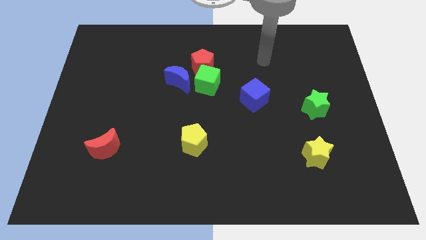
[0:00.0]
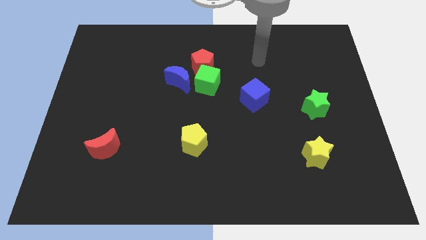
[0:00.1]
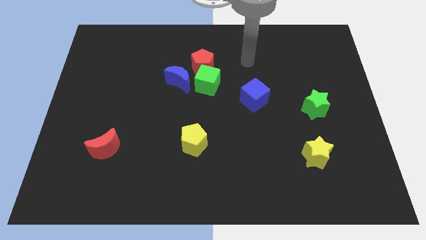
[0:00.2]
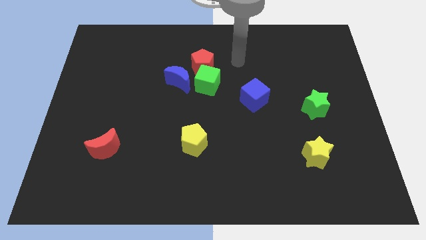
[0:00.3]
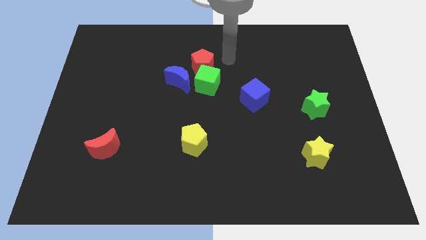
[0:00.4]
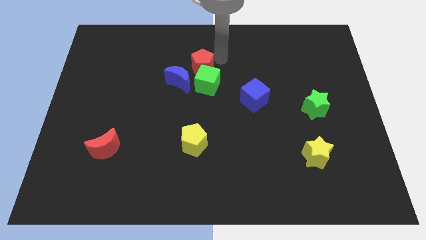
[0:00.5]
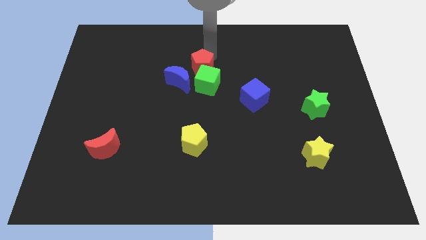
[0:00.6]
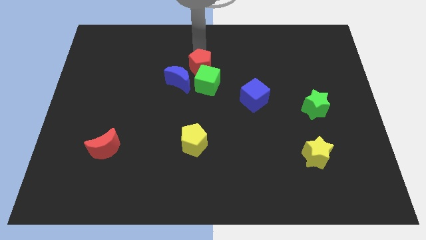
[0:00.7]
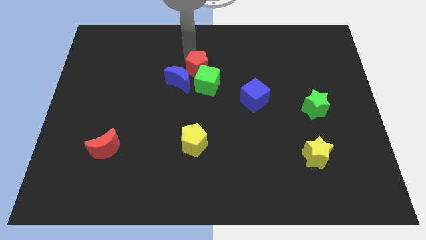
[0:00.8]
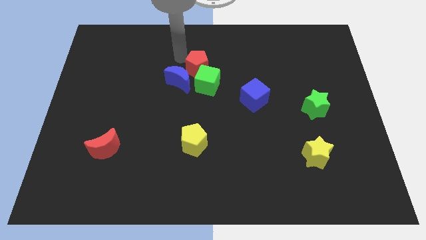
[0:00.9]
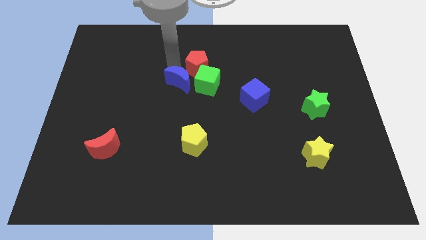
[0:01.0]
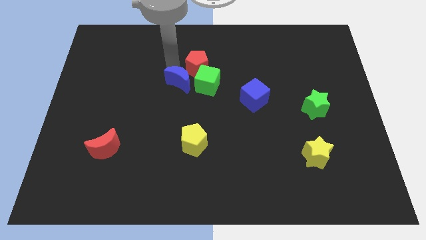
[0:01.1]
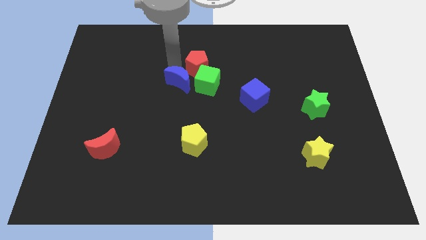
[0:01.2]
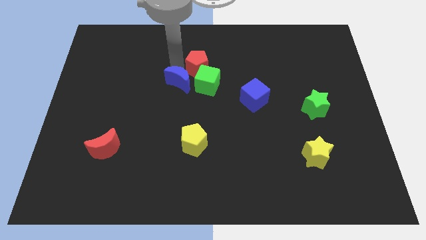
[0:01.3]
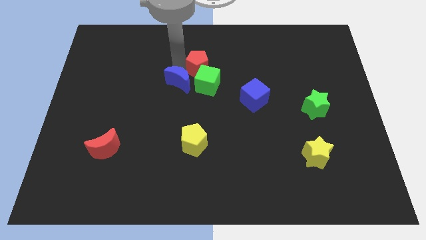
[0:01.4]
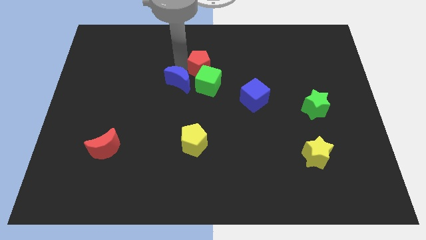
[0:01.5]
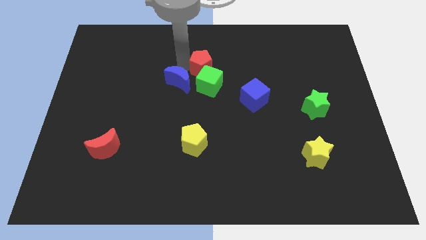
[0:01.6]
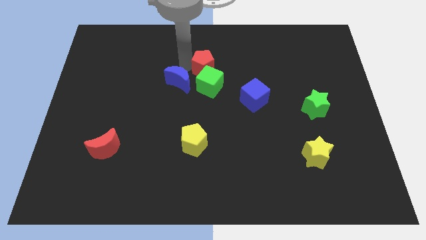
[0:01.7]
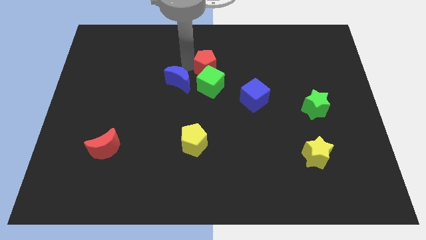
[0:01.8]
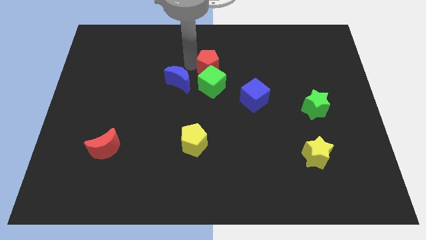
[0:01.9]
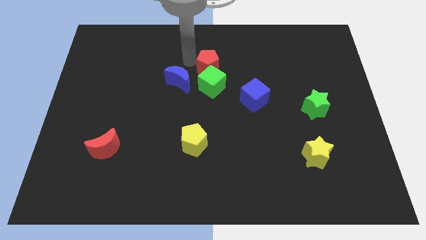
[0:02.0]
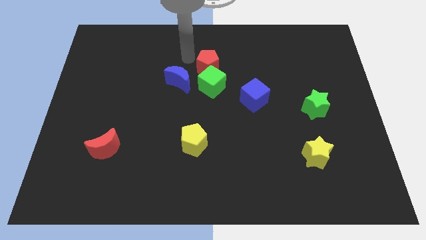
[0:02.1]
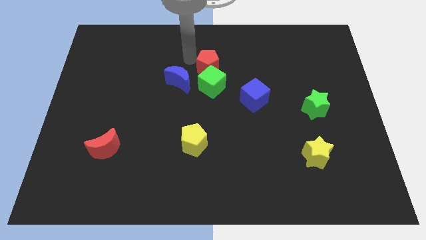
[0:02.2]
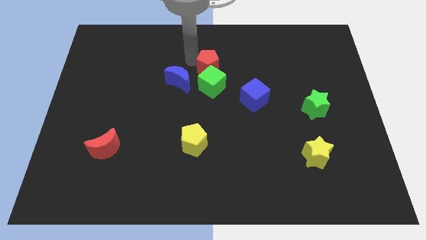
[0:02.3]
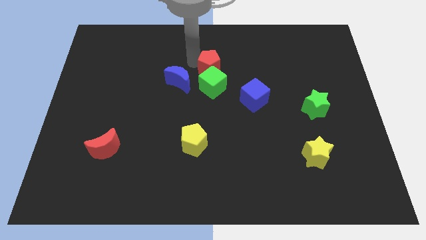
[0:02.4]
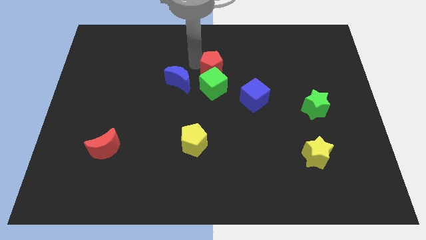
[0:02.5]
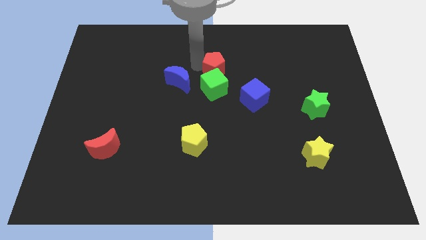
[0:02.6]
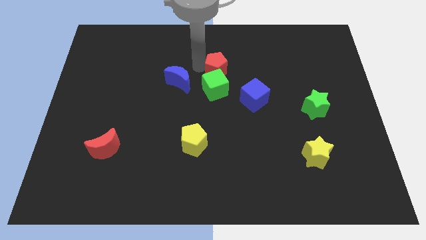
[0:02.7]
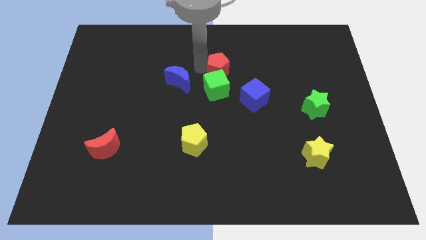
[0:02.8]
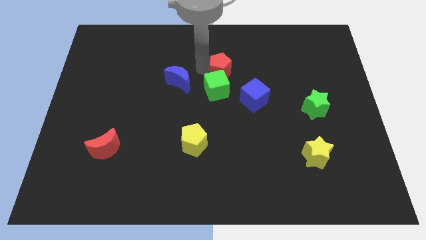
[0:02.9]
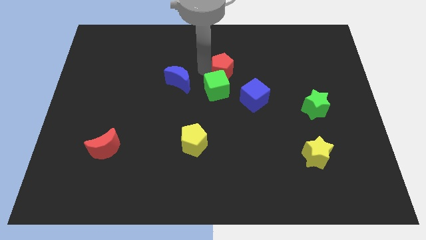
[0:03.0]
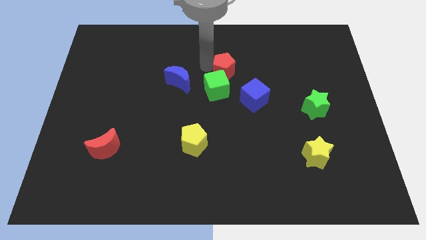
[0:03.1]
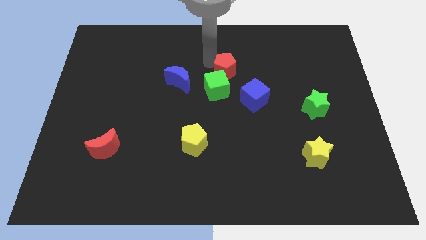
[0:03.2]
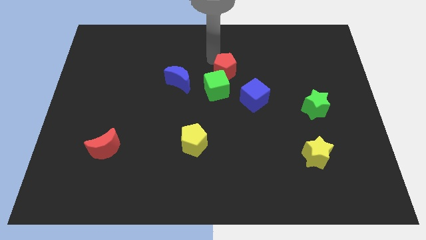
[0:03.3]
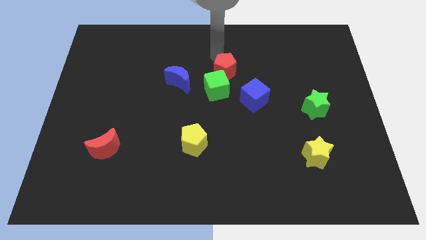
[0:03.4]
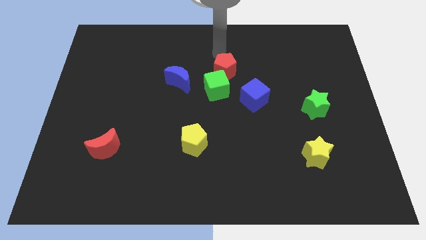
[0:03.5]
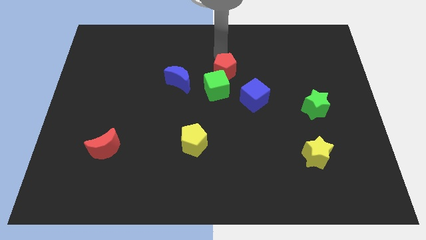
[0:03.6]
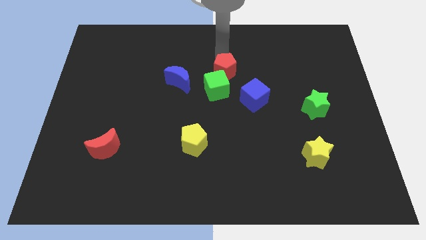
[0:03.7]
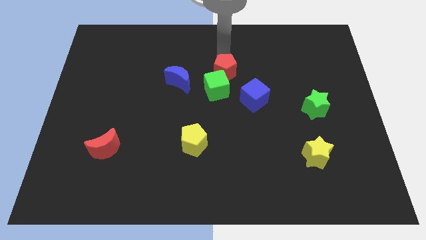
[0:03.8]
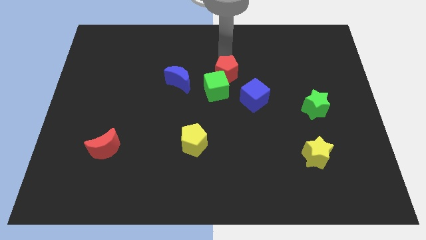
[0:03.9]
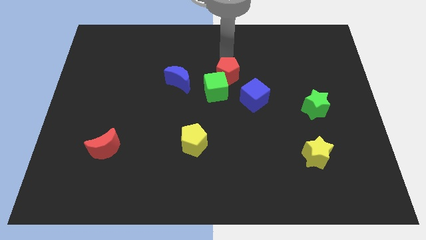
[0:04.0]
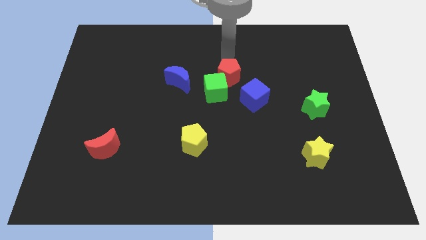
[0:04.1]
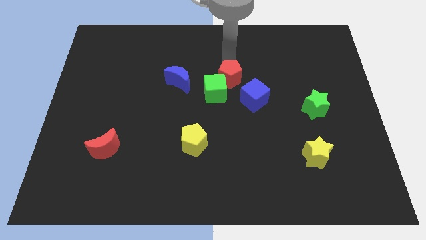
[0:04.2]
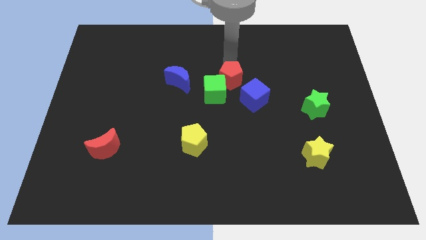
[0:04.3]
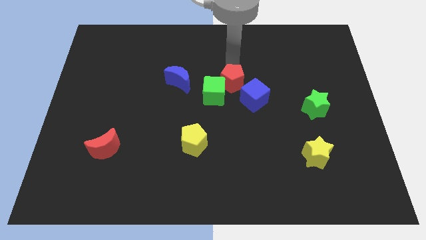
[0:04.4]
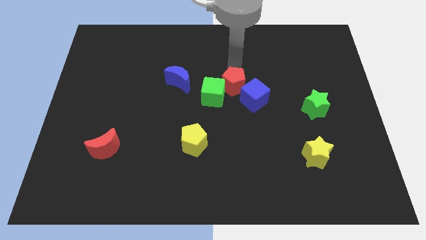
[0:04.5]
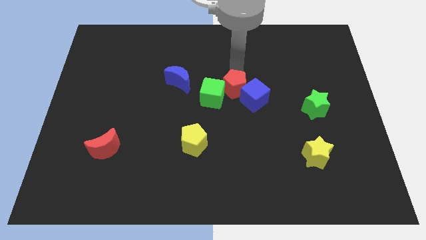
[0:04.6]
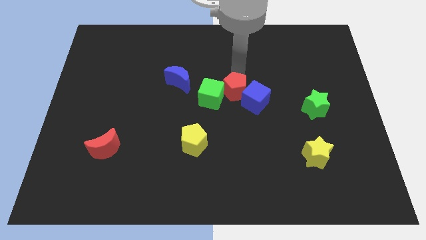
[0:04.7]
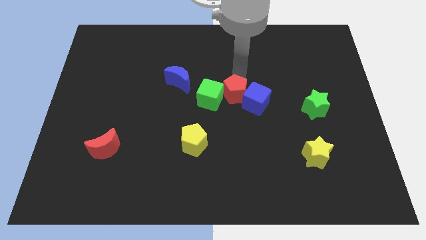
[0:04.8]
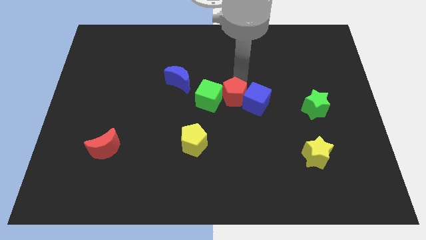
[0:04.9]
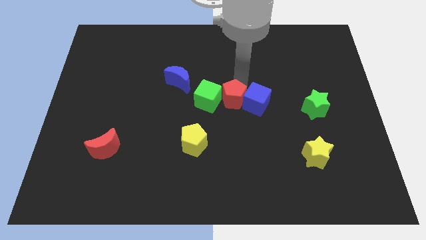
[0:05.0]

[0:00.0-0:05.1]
slide the red pentagon diagonally down and to the left of the blue cube

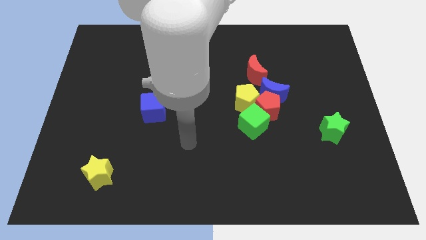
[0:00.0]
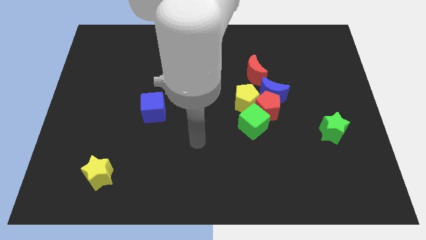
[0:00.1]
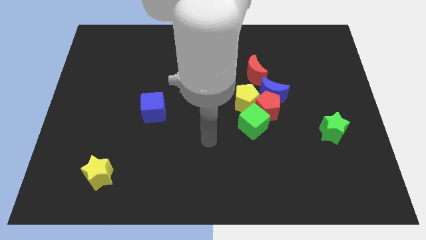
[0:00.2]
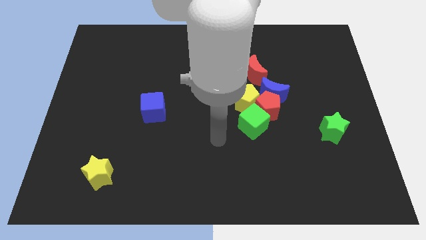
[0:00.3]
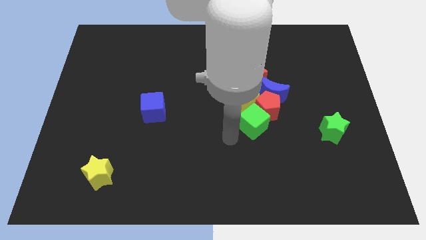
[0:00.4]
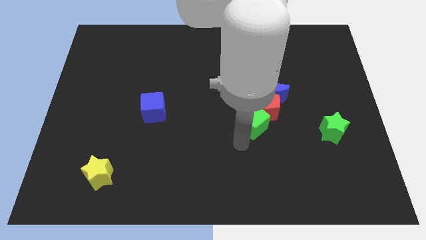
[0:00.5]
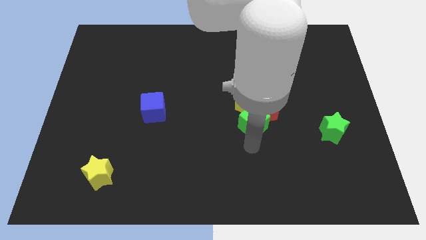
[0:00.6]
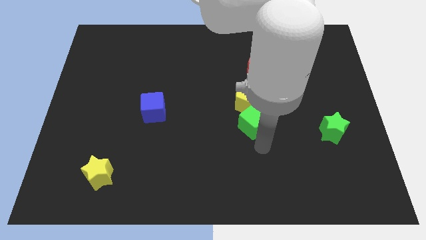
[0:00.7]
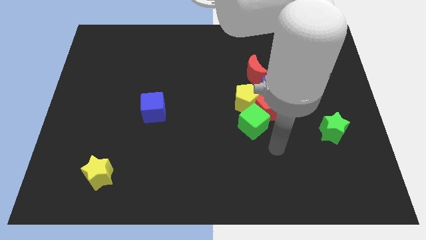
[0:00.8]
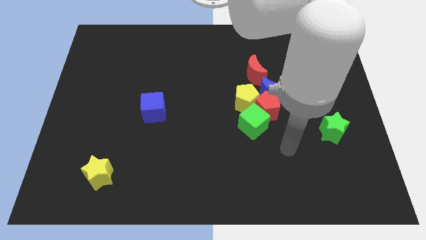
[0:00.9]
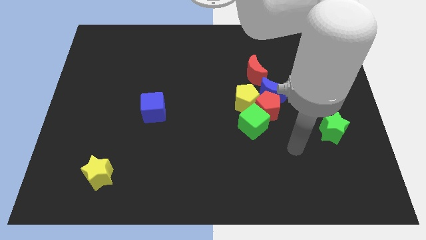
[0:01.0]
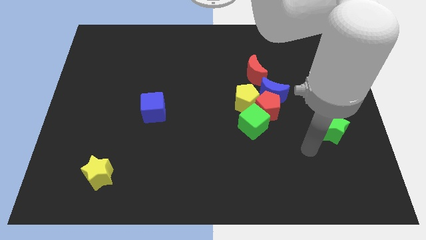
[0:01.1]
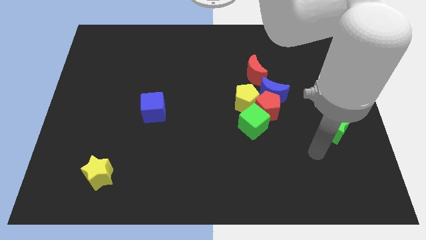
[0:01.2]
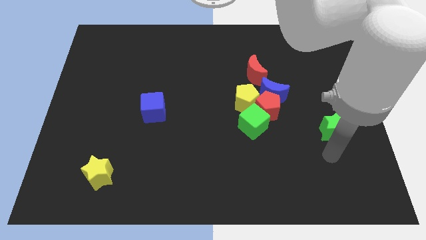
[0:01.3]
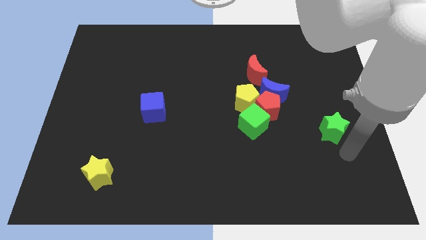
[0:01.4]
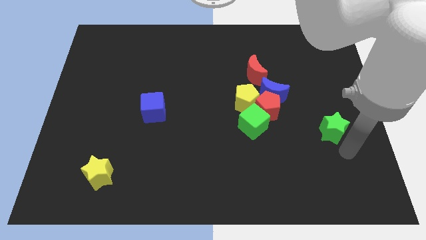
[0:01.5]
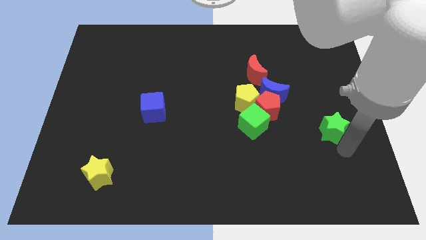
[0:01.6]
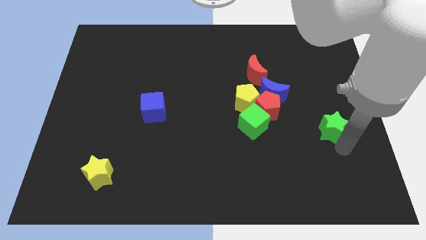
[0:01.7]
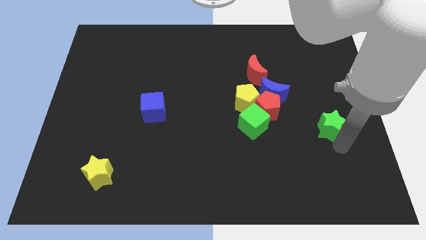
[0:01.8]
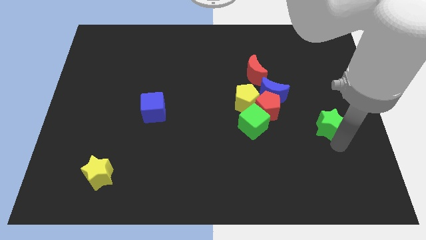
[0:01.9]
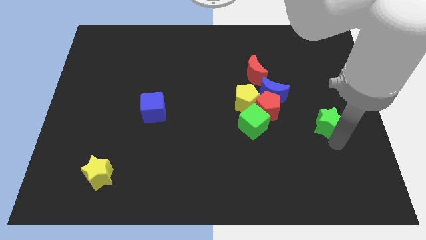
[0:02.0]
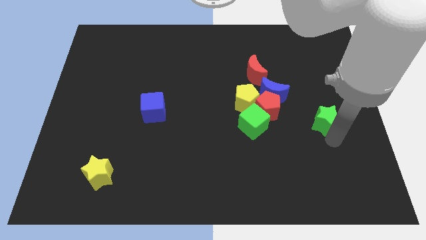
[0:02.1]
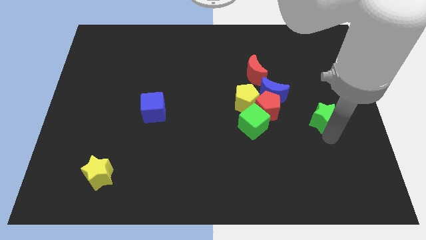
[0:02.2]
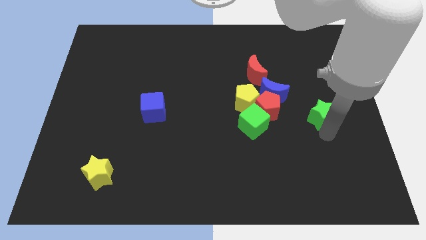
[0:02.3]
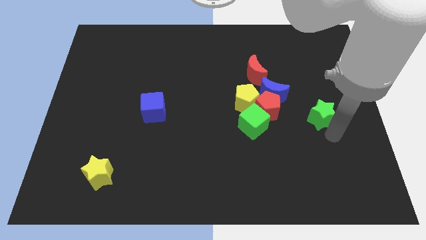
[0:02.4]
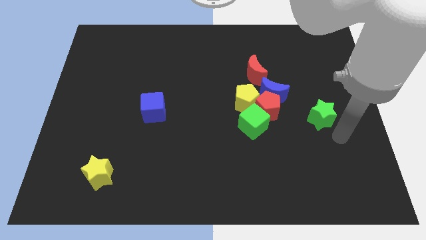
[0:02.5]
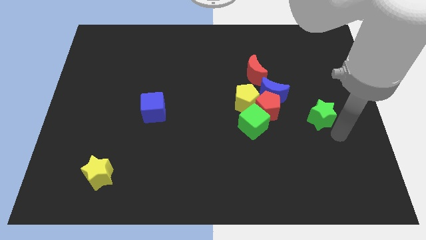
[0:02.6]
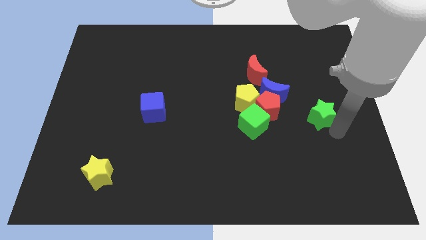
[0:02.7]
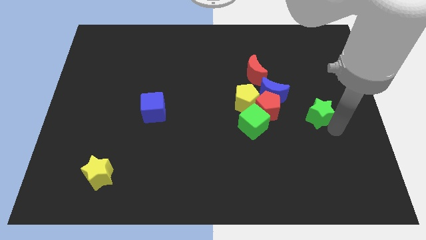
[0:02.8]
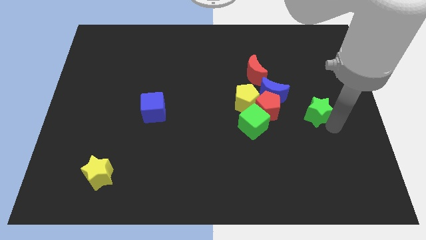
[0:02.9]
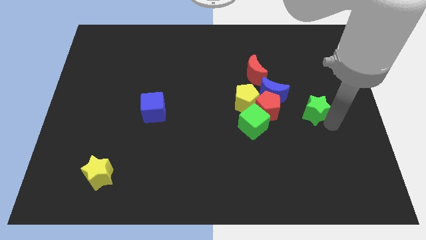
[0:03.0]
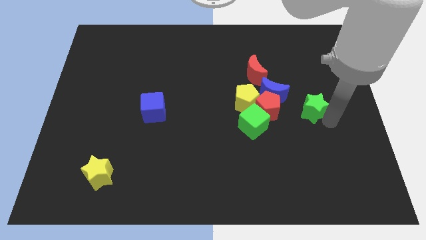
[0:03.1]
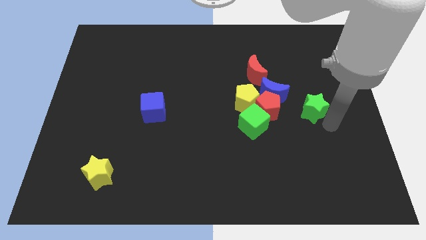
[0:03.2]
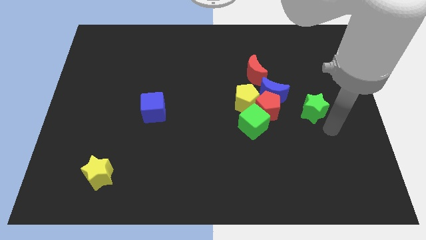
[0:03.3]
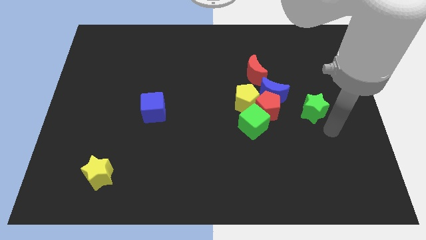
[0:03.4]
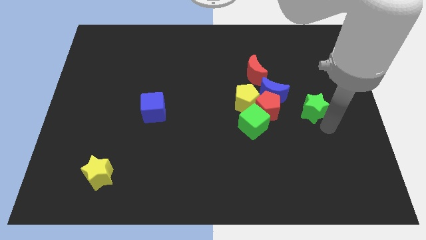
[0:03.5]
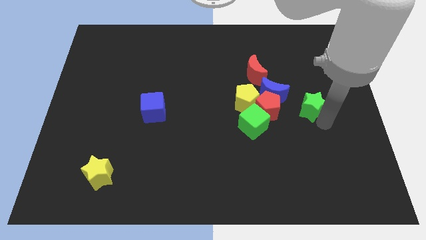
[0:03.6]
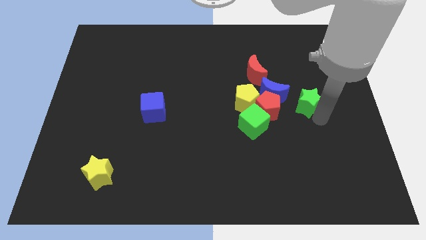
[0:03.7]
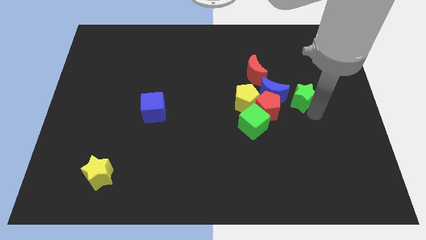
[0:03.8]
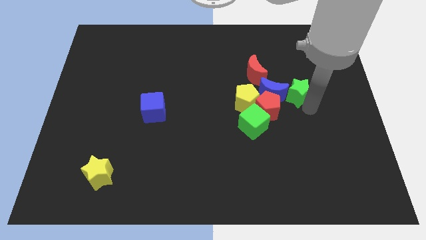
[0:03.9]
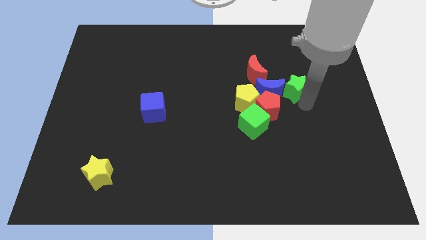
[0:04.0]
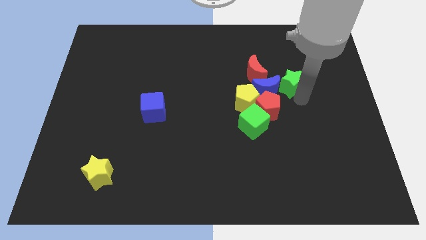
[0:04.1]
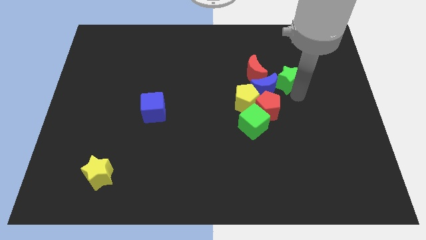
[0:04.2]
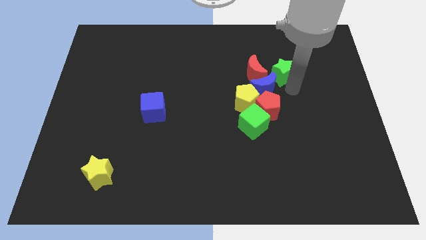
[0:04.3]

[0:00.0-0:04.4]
slide the green star diagonally up and to the right of the red moon
